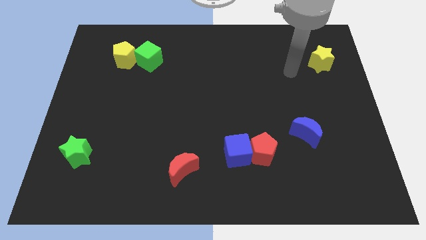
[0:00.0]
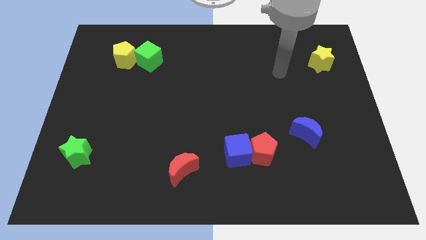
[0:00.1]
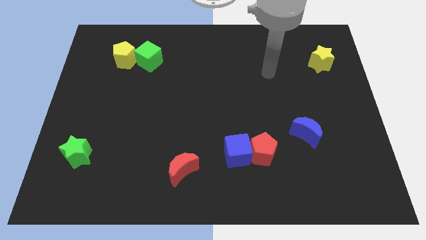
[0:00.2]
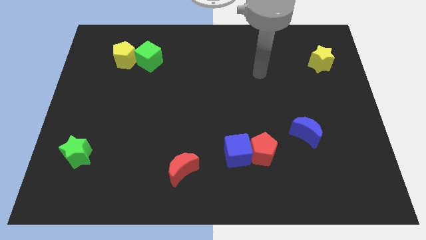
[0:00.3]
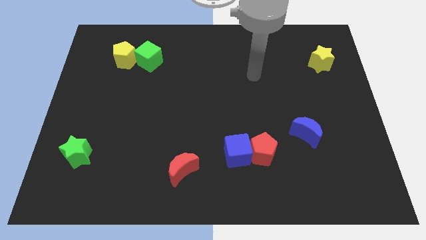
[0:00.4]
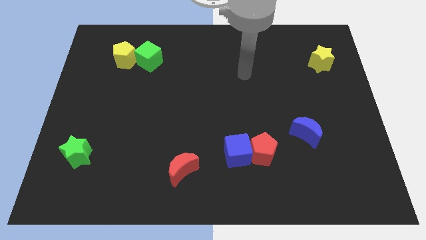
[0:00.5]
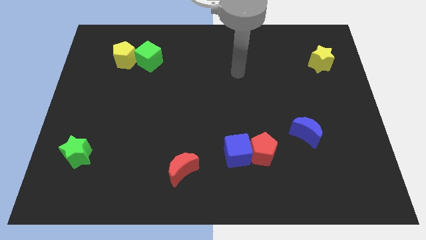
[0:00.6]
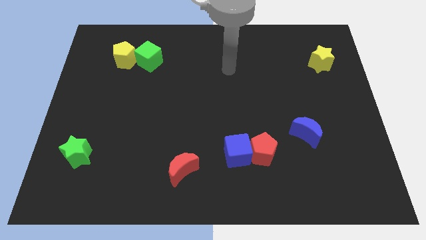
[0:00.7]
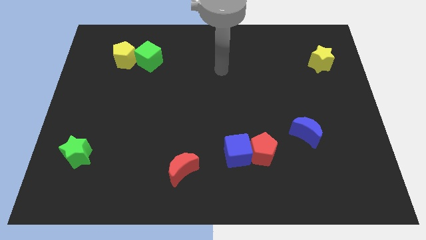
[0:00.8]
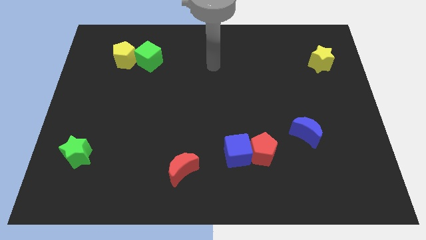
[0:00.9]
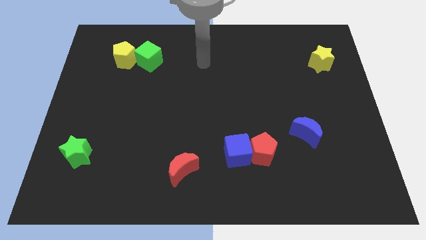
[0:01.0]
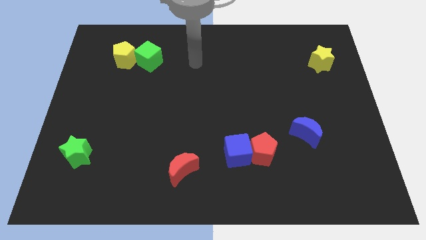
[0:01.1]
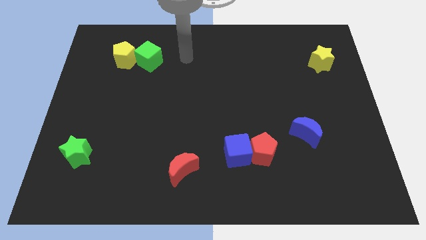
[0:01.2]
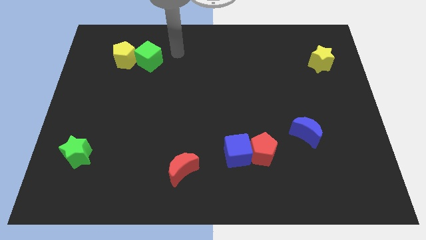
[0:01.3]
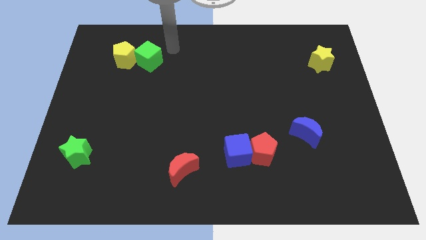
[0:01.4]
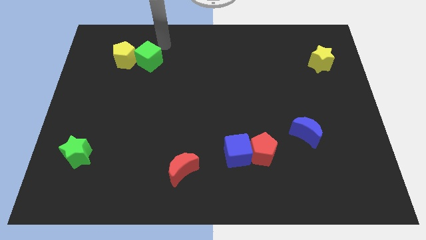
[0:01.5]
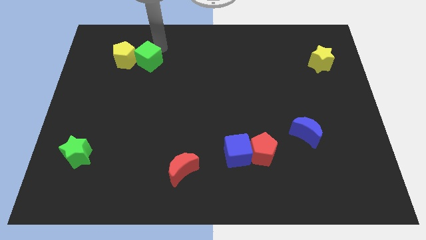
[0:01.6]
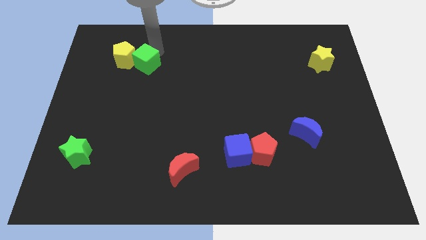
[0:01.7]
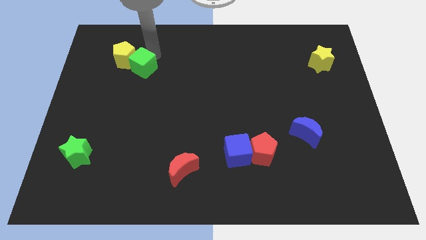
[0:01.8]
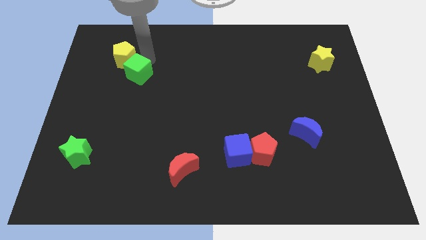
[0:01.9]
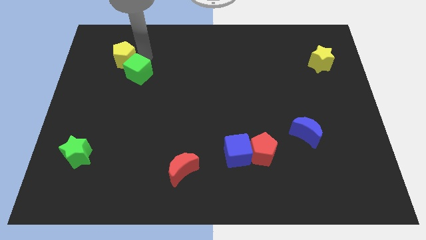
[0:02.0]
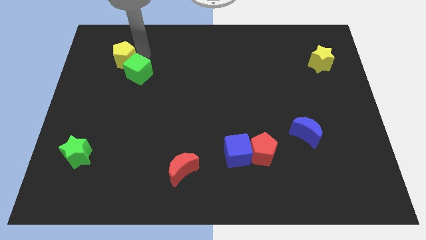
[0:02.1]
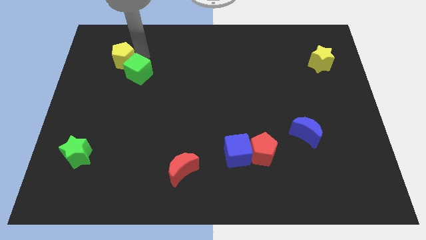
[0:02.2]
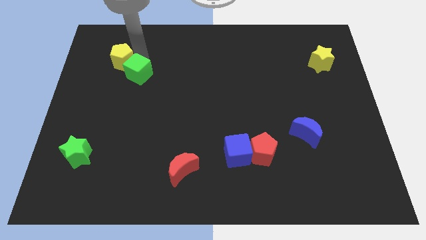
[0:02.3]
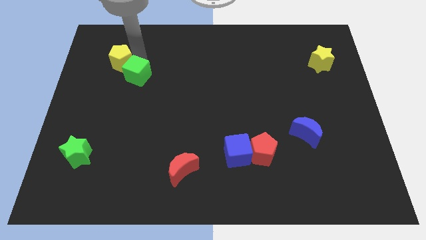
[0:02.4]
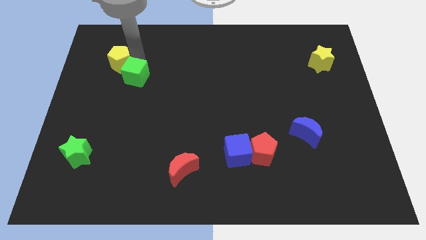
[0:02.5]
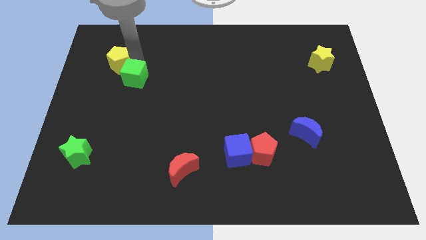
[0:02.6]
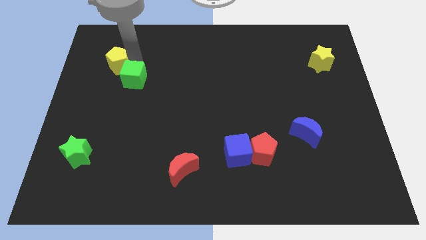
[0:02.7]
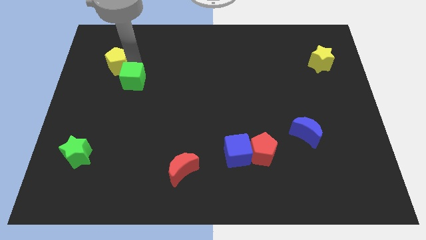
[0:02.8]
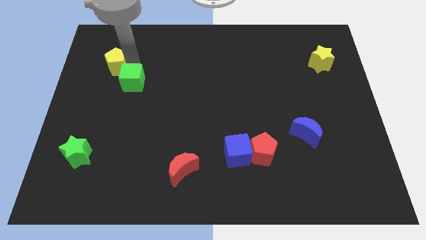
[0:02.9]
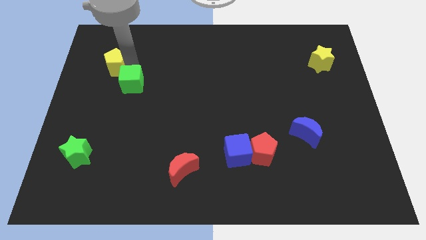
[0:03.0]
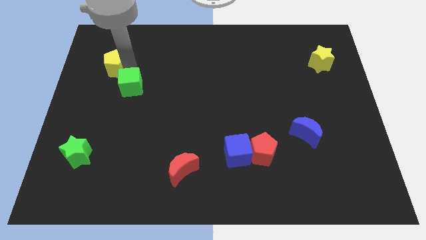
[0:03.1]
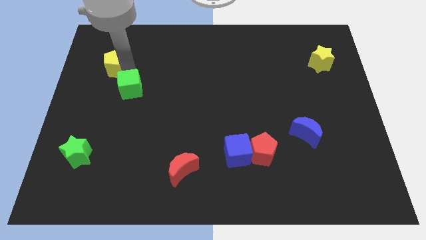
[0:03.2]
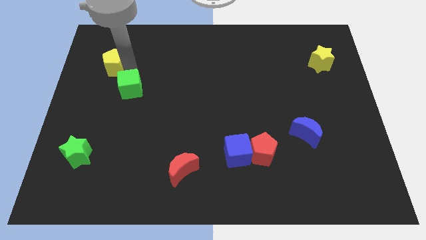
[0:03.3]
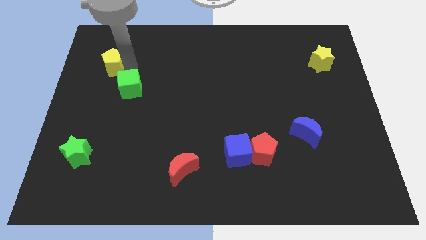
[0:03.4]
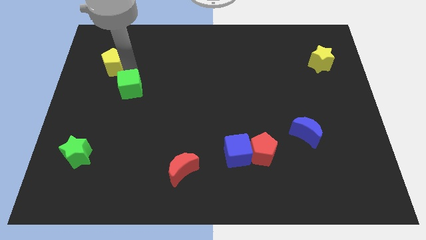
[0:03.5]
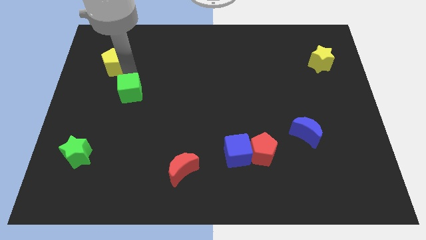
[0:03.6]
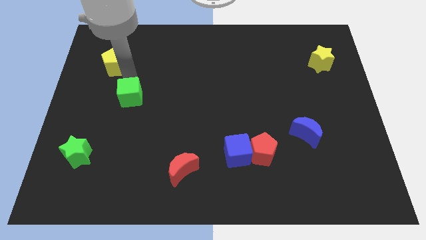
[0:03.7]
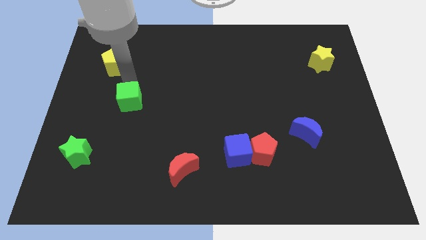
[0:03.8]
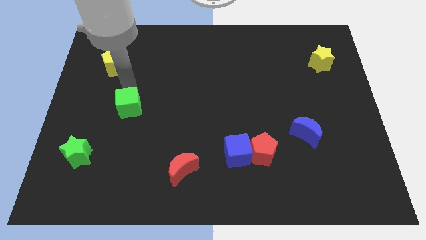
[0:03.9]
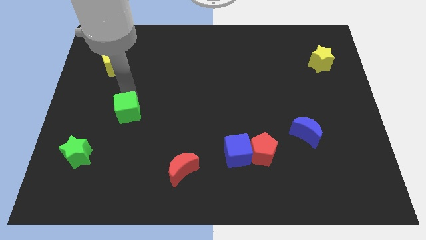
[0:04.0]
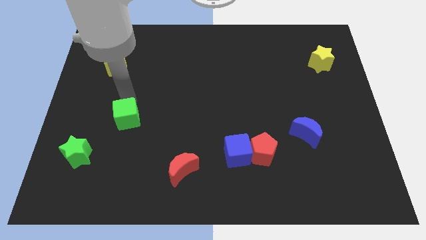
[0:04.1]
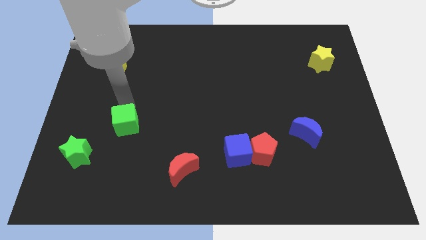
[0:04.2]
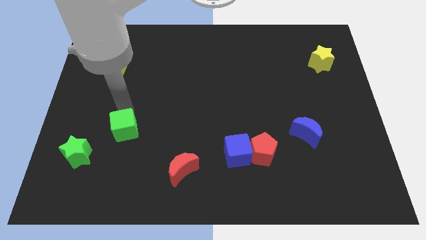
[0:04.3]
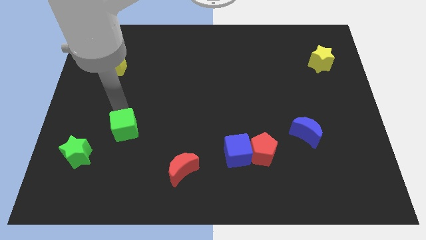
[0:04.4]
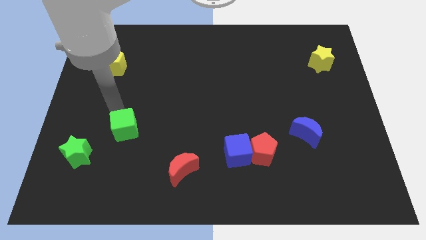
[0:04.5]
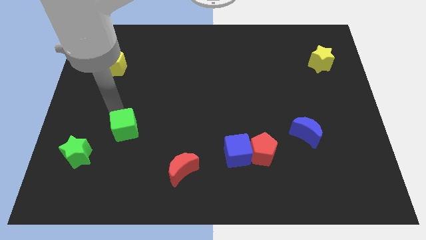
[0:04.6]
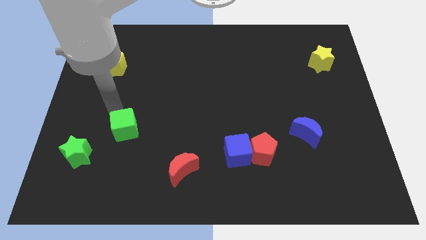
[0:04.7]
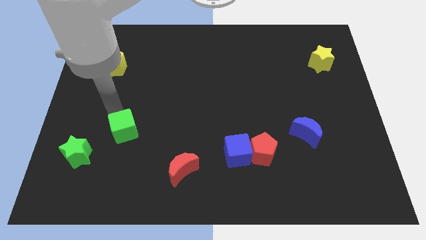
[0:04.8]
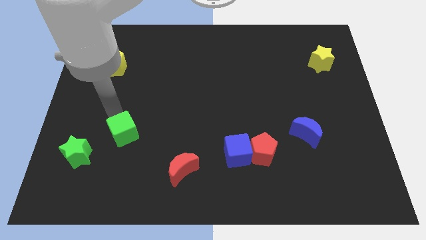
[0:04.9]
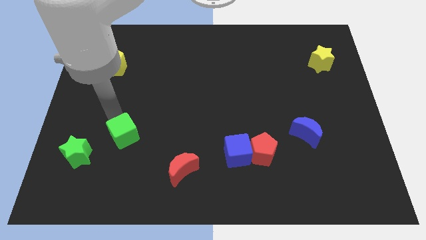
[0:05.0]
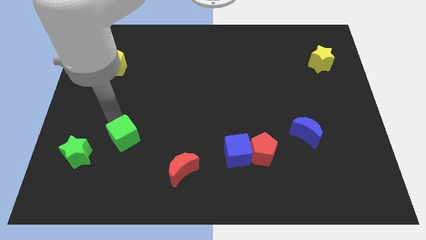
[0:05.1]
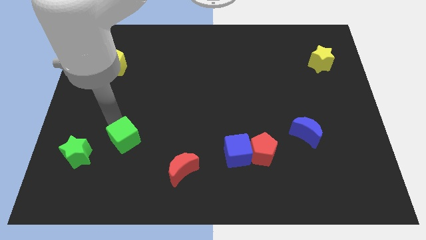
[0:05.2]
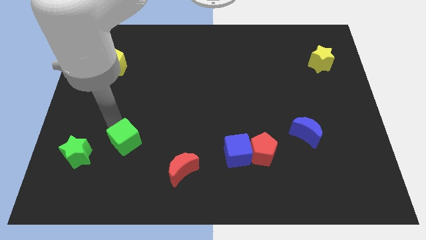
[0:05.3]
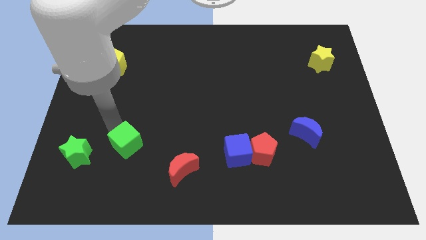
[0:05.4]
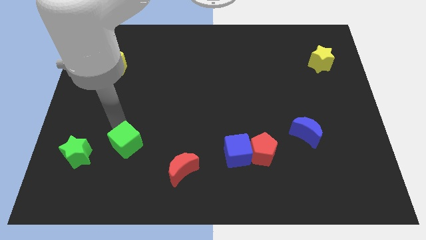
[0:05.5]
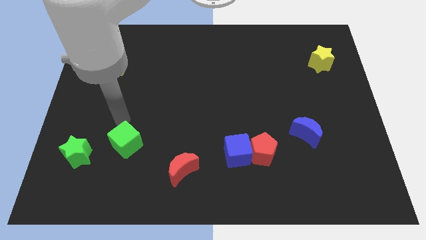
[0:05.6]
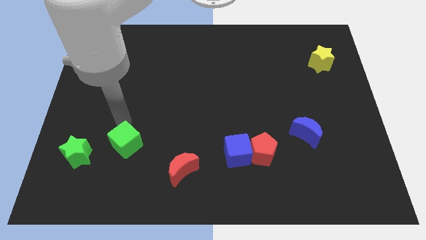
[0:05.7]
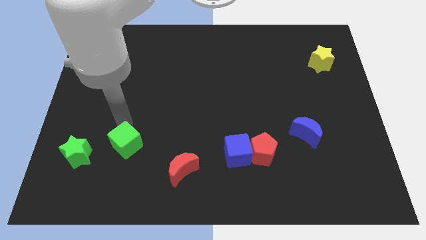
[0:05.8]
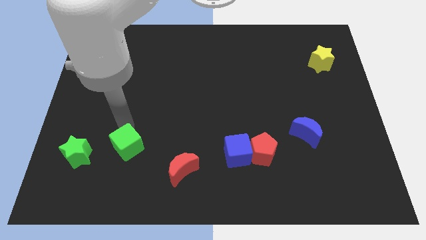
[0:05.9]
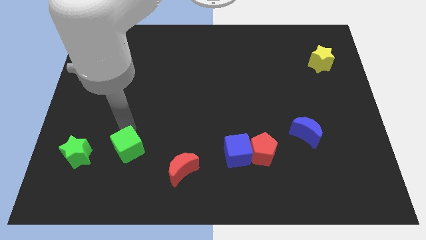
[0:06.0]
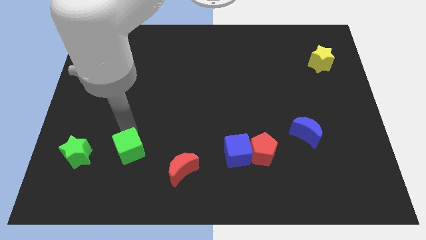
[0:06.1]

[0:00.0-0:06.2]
slide the green cube to the left side of the red moon

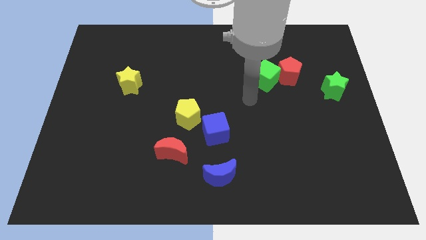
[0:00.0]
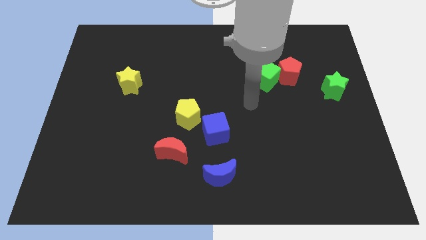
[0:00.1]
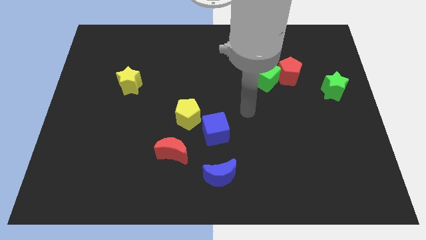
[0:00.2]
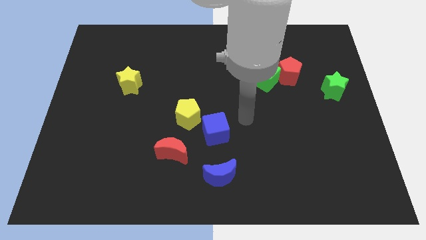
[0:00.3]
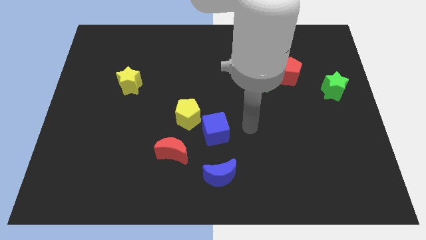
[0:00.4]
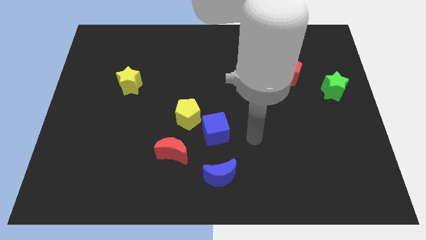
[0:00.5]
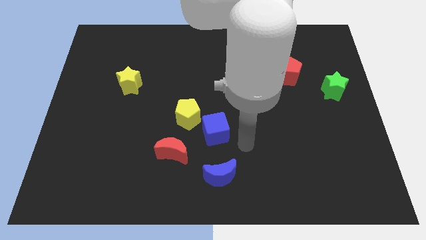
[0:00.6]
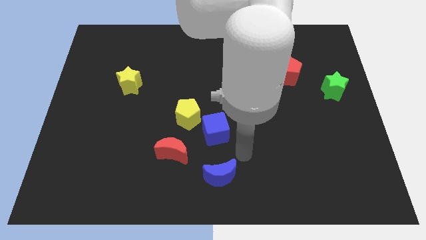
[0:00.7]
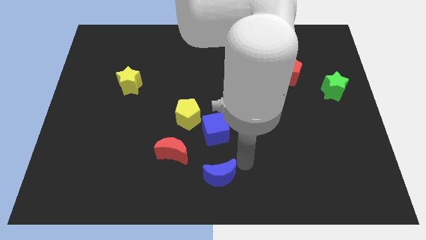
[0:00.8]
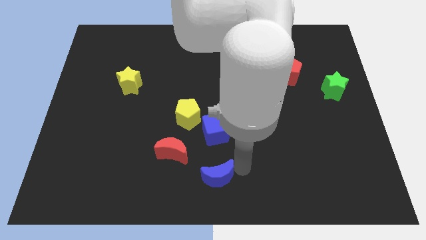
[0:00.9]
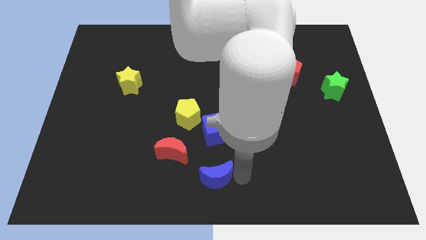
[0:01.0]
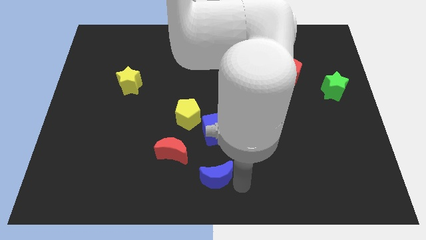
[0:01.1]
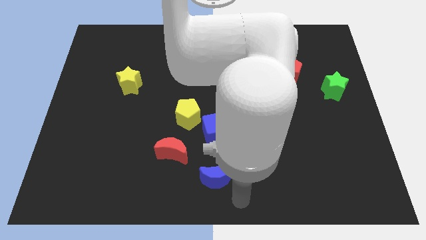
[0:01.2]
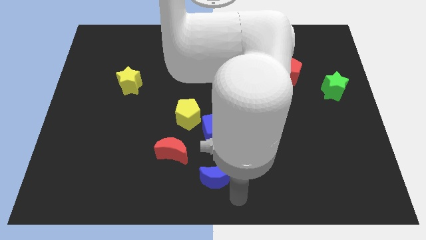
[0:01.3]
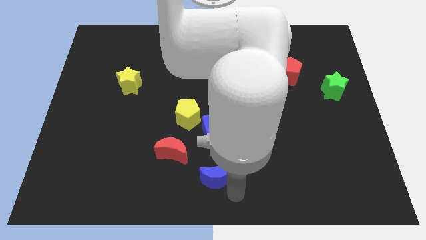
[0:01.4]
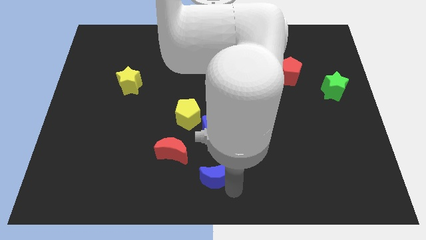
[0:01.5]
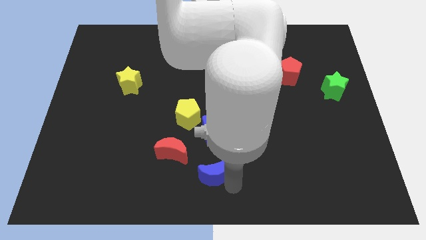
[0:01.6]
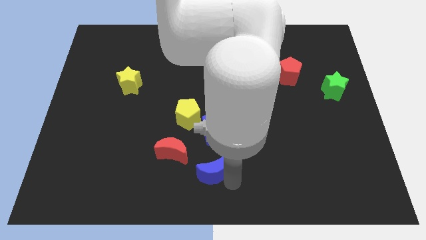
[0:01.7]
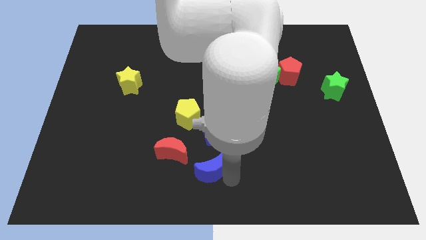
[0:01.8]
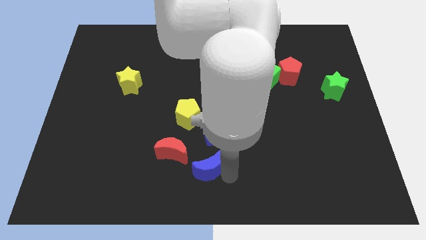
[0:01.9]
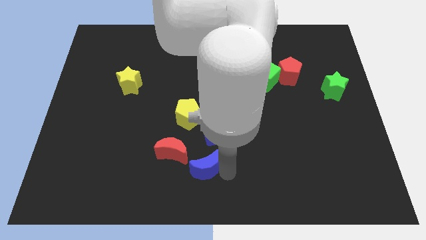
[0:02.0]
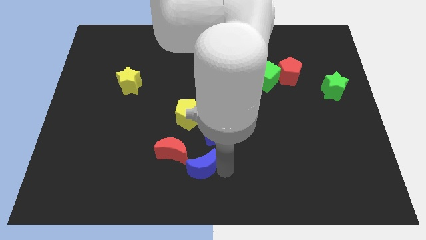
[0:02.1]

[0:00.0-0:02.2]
push the blue moon diagonally down and to the left of the blue cube
